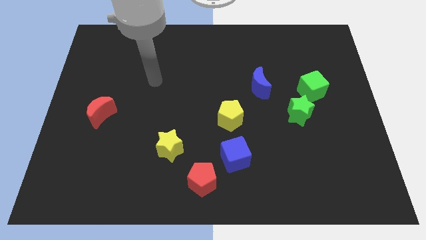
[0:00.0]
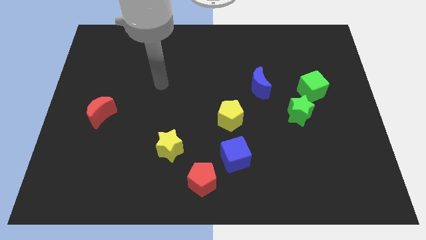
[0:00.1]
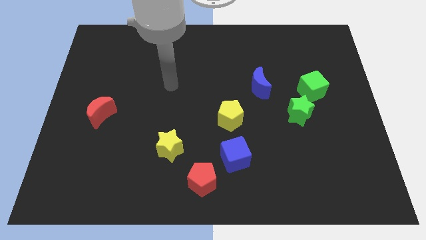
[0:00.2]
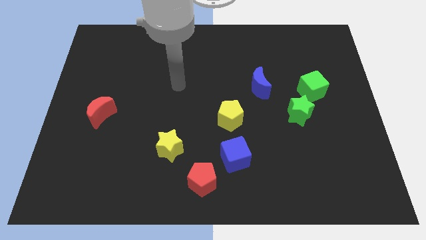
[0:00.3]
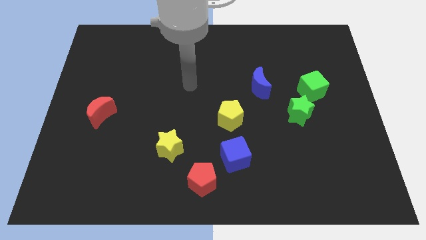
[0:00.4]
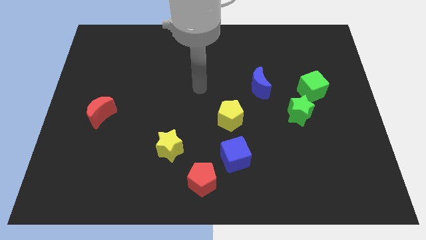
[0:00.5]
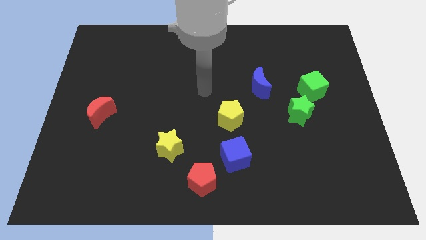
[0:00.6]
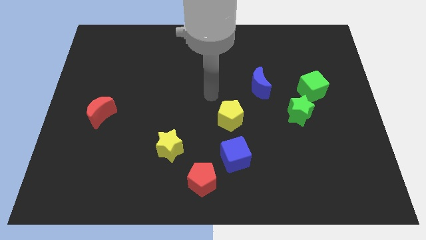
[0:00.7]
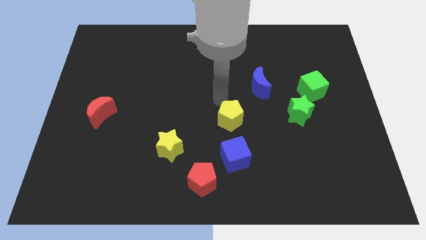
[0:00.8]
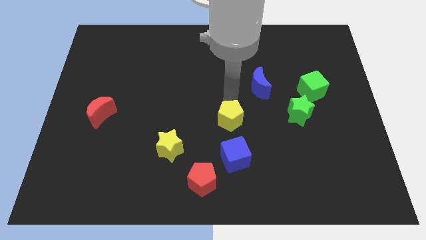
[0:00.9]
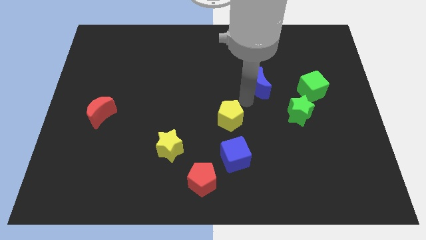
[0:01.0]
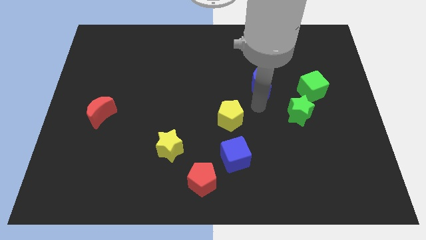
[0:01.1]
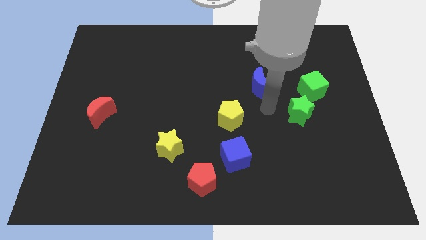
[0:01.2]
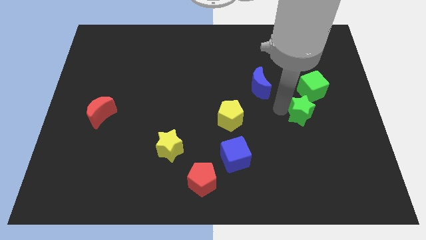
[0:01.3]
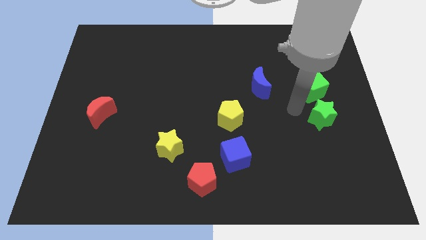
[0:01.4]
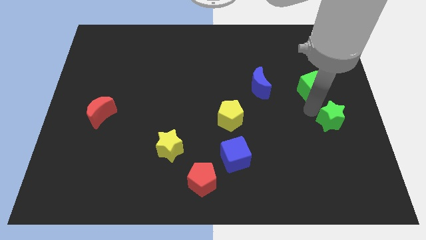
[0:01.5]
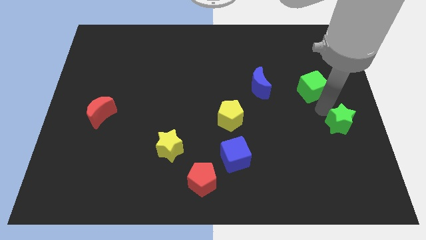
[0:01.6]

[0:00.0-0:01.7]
separate the green cube from the green star

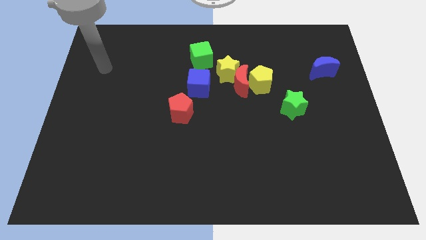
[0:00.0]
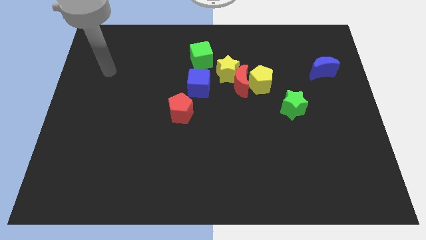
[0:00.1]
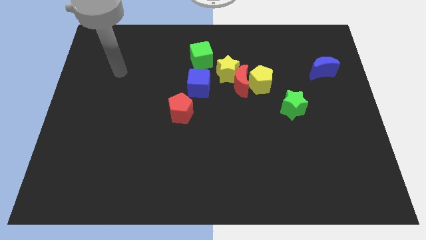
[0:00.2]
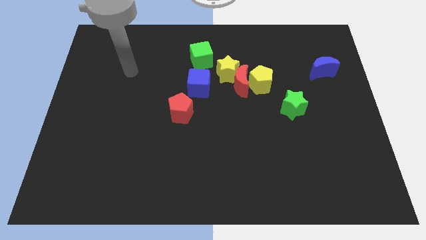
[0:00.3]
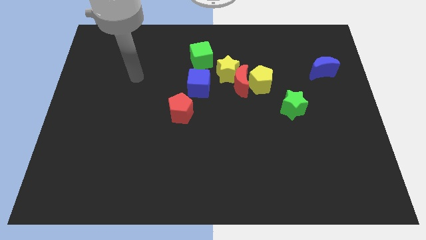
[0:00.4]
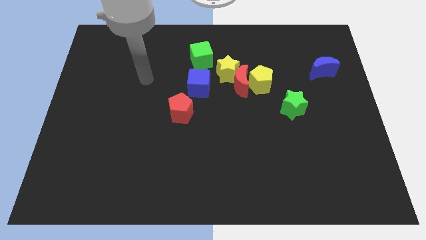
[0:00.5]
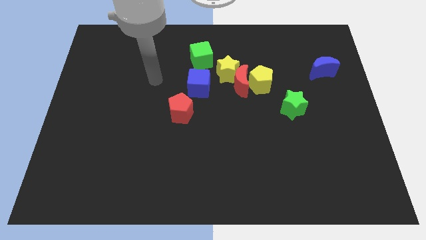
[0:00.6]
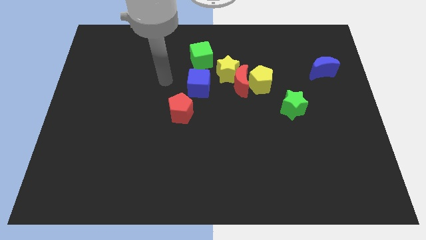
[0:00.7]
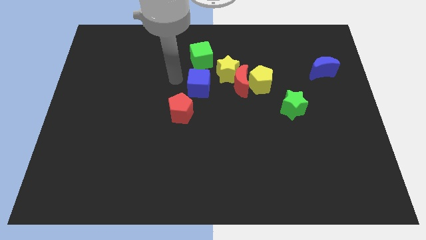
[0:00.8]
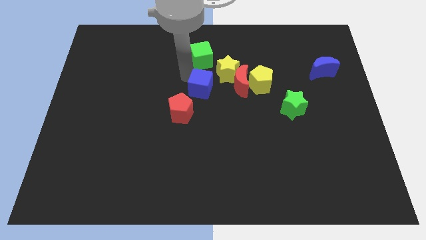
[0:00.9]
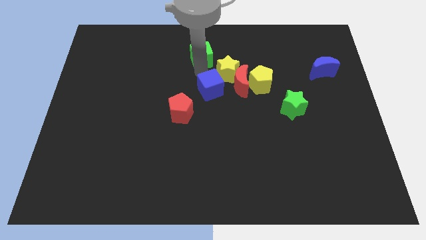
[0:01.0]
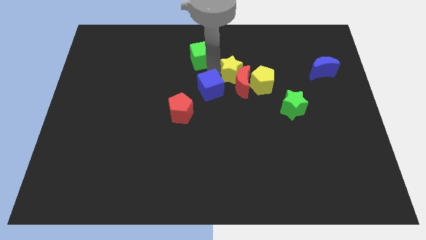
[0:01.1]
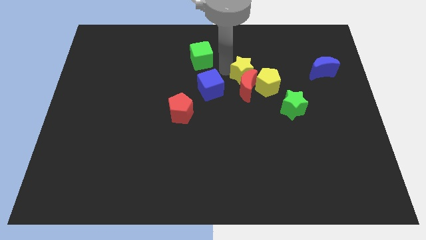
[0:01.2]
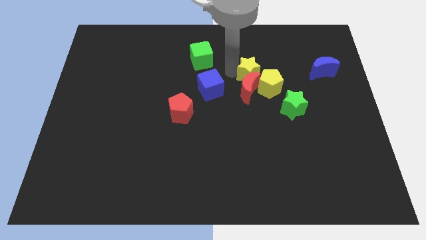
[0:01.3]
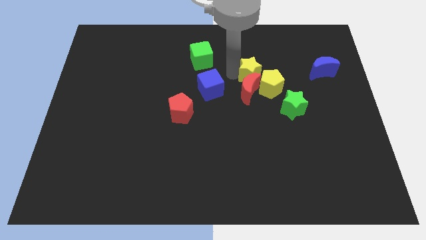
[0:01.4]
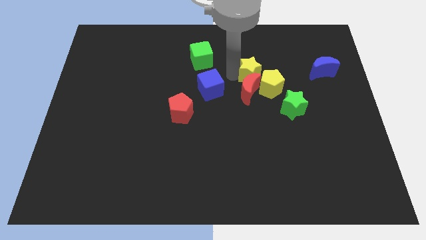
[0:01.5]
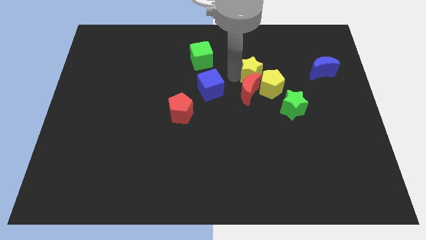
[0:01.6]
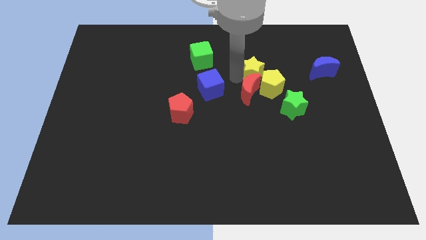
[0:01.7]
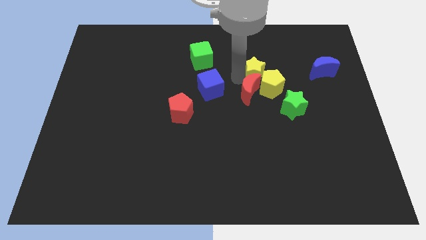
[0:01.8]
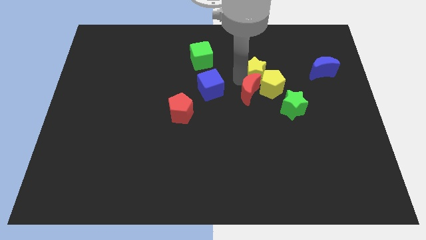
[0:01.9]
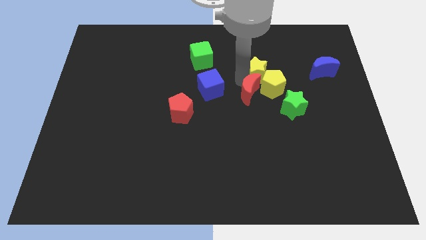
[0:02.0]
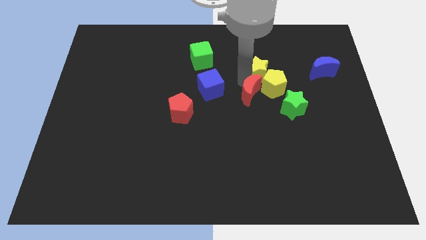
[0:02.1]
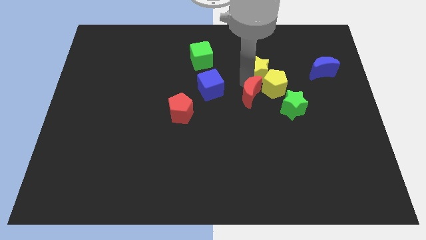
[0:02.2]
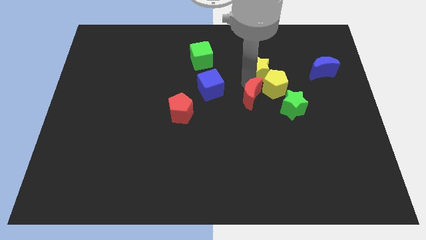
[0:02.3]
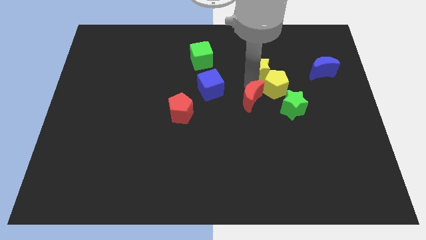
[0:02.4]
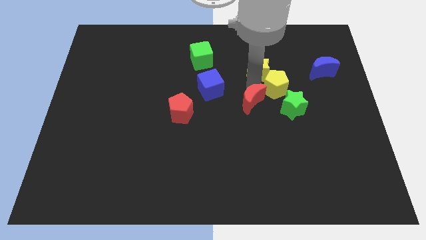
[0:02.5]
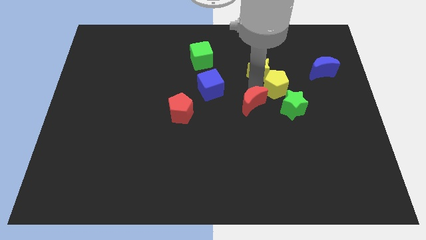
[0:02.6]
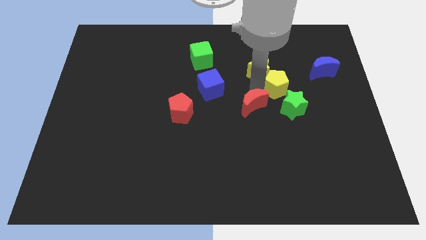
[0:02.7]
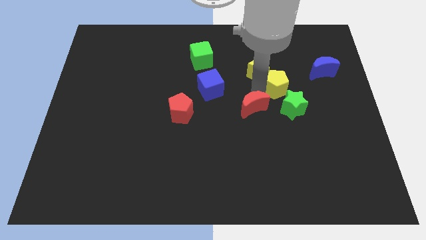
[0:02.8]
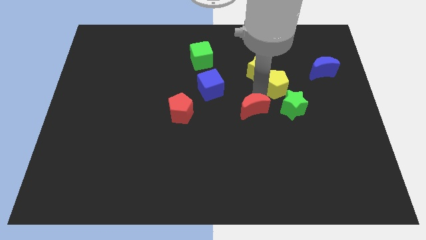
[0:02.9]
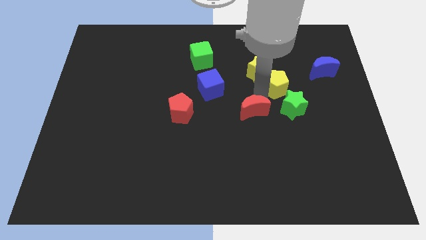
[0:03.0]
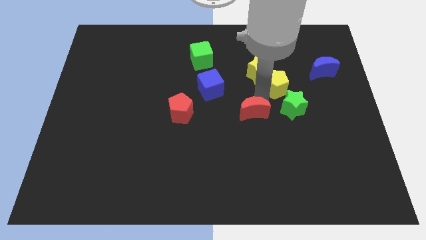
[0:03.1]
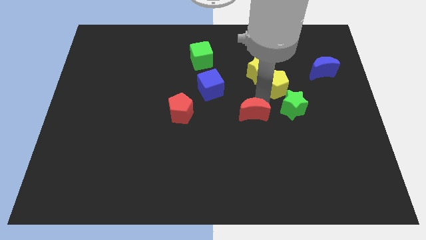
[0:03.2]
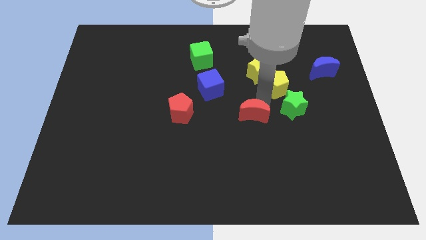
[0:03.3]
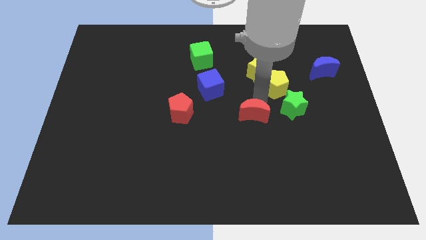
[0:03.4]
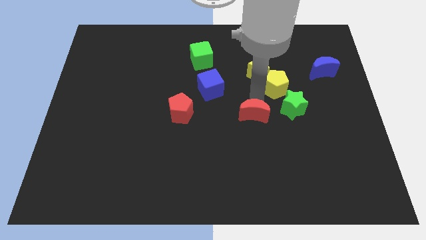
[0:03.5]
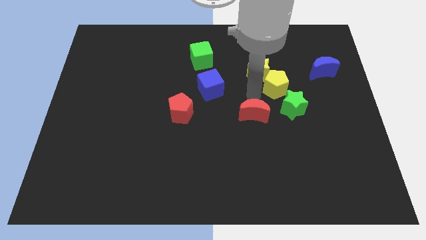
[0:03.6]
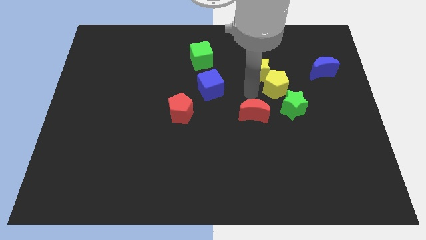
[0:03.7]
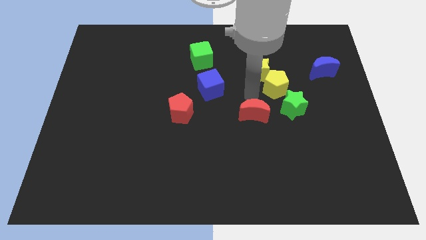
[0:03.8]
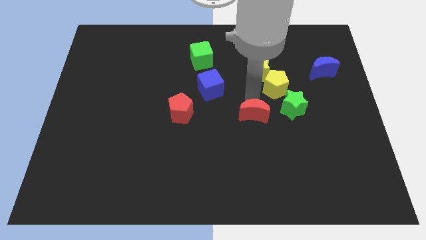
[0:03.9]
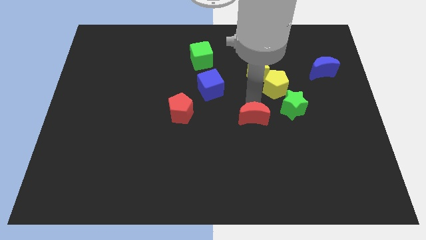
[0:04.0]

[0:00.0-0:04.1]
pull the red moon apart from the yellow star, yellow pentagon, and blue cube

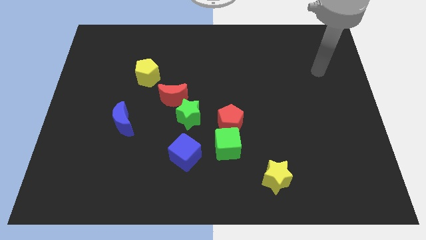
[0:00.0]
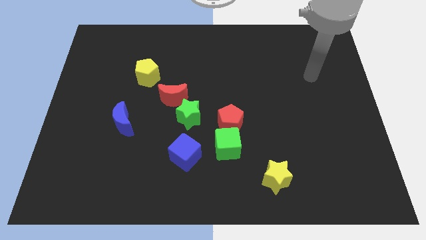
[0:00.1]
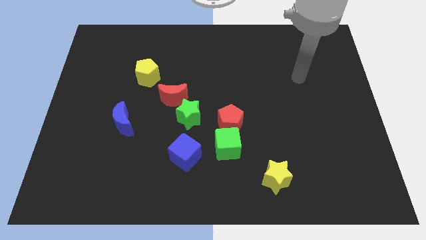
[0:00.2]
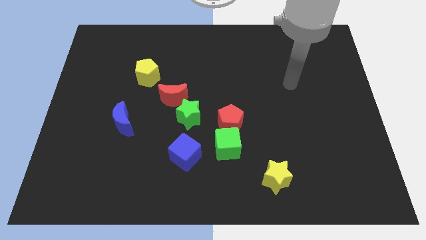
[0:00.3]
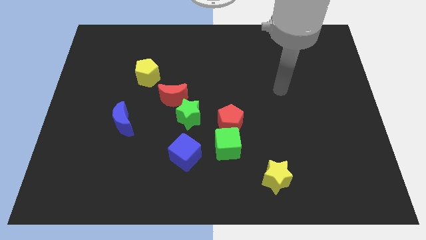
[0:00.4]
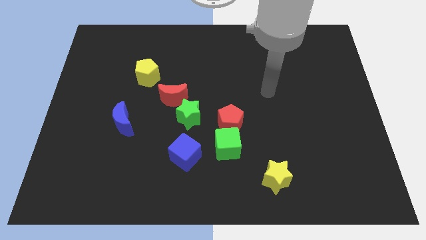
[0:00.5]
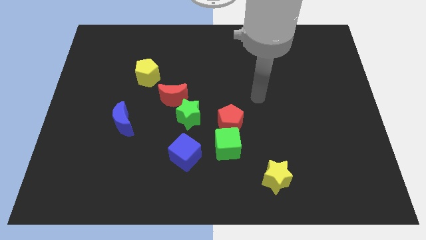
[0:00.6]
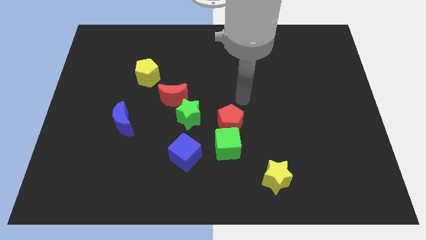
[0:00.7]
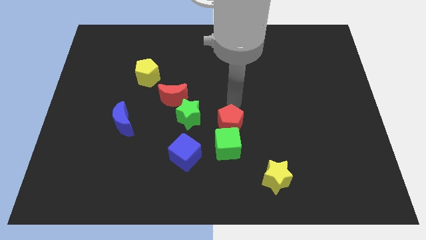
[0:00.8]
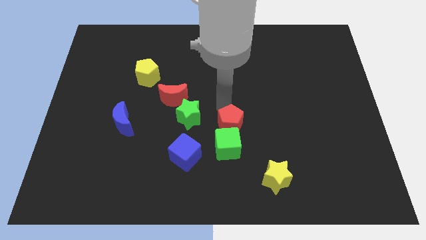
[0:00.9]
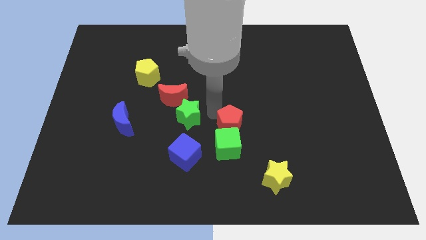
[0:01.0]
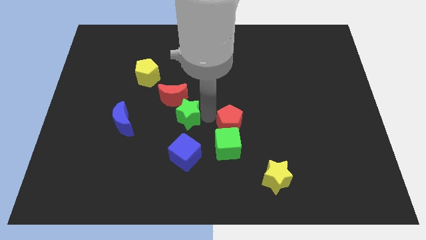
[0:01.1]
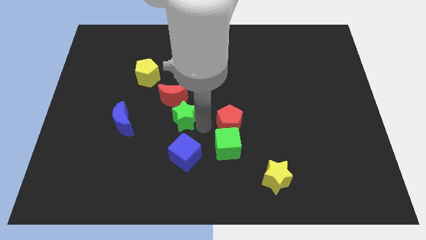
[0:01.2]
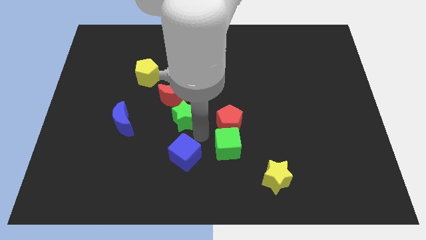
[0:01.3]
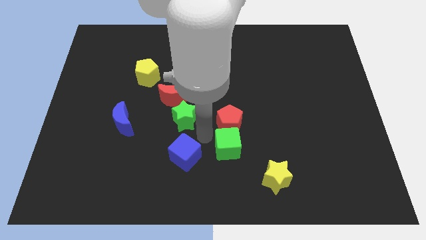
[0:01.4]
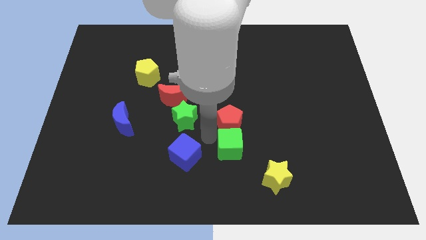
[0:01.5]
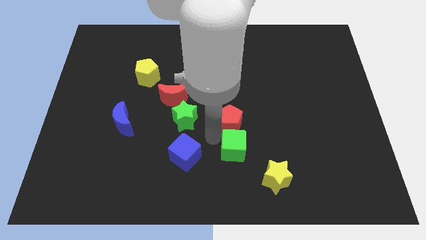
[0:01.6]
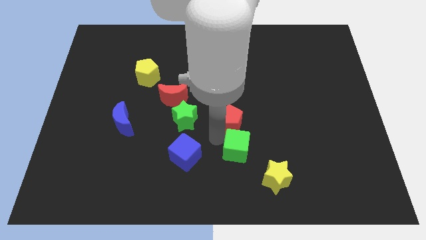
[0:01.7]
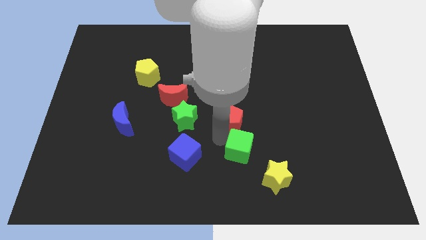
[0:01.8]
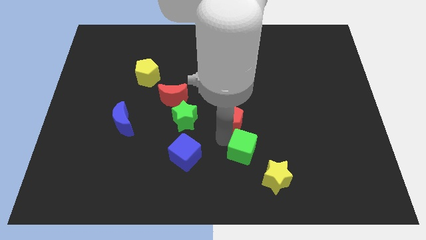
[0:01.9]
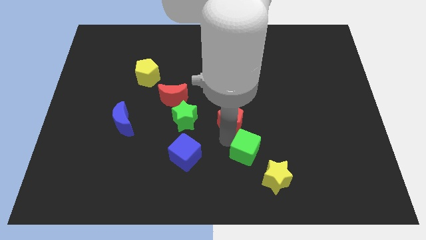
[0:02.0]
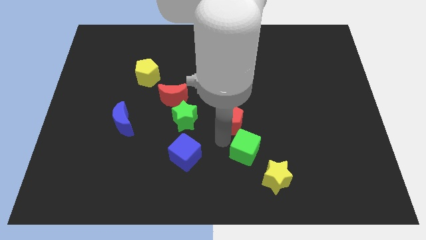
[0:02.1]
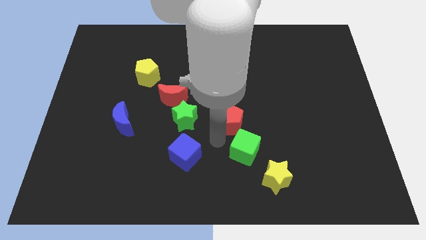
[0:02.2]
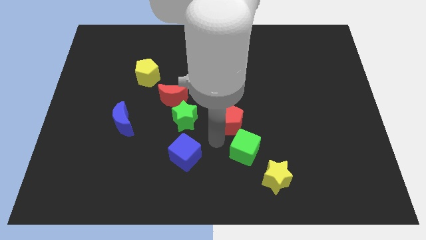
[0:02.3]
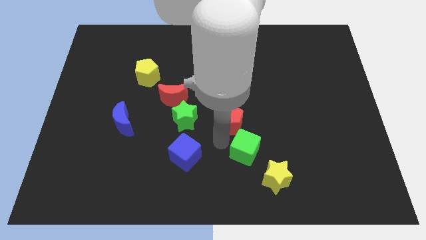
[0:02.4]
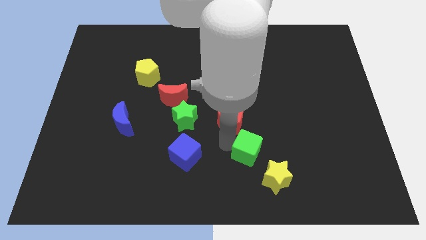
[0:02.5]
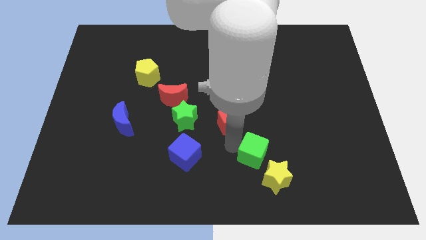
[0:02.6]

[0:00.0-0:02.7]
pull the green cube apart from the red pentagon and blue cube

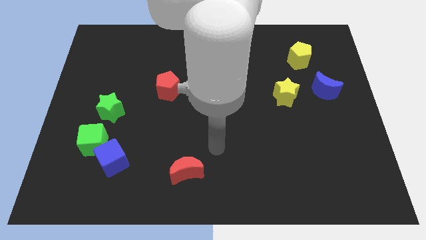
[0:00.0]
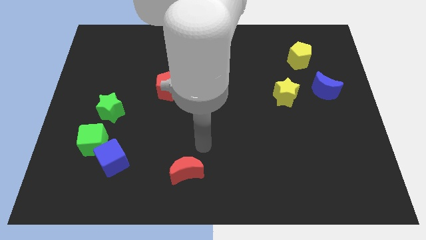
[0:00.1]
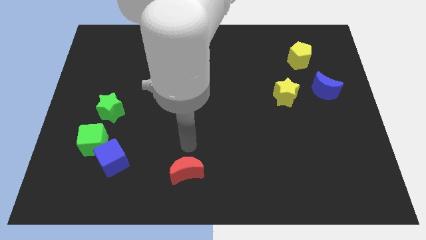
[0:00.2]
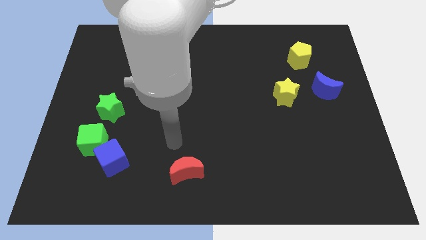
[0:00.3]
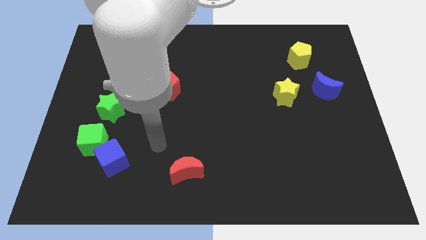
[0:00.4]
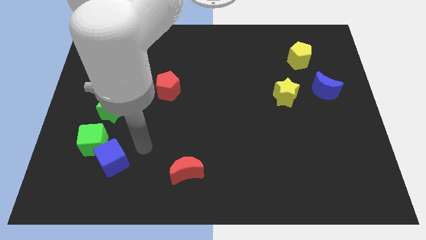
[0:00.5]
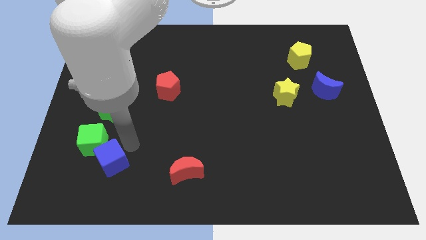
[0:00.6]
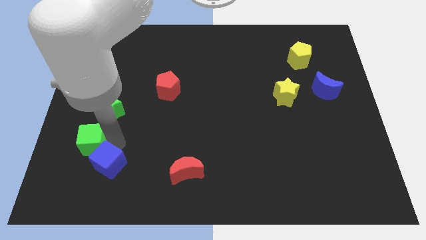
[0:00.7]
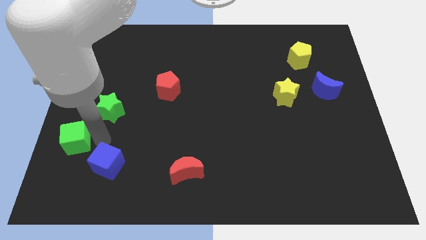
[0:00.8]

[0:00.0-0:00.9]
pull the blue cube apart from the green cube

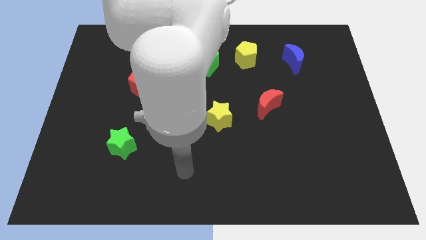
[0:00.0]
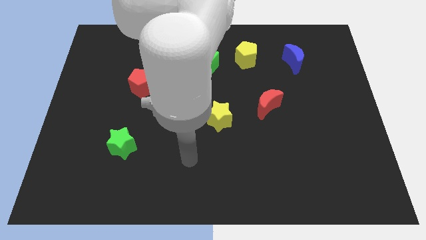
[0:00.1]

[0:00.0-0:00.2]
move the blue cube away from the yellow star
